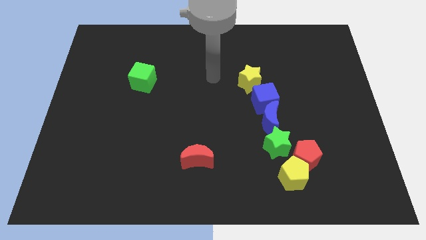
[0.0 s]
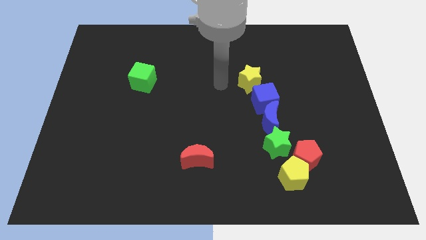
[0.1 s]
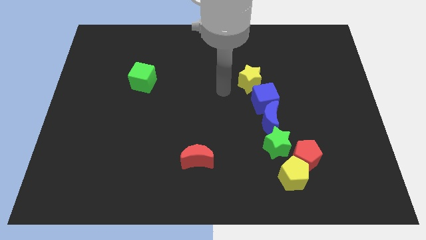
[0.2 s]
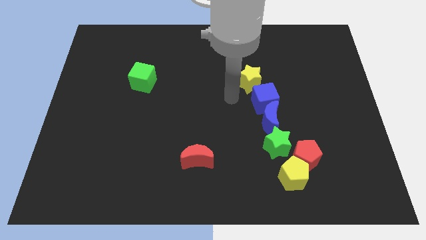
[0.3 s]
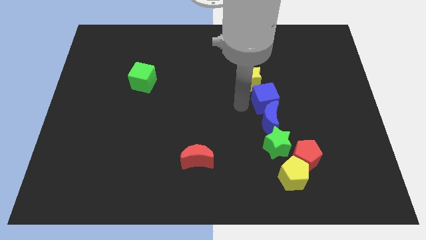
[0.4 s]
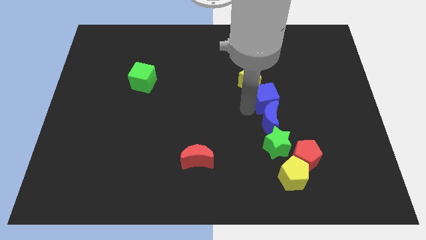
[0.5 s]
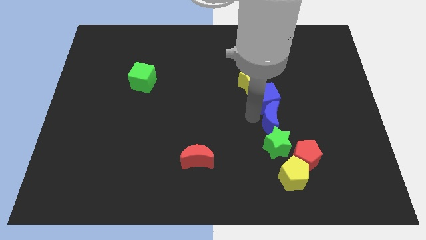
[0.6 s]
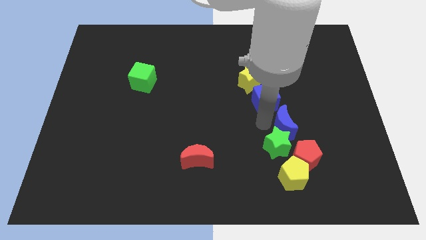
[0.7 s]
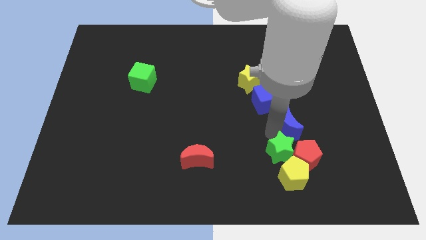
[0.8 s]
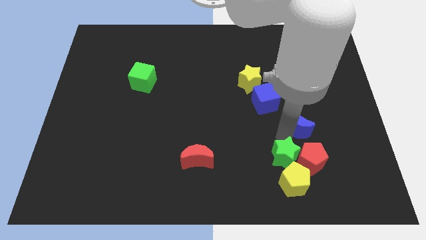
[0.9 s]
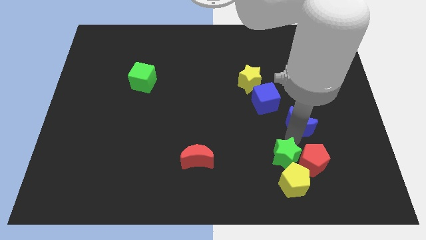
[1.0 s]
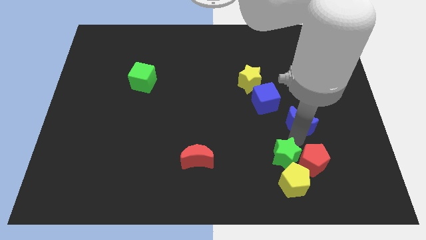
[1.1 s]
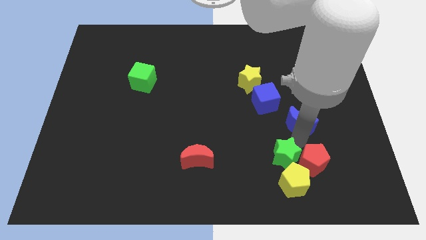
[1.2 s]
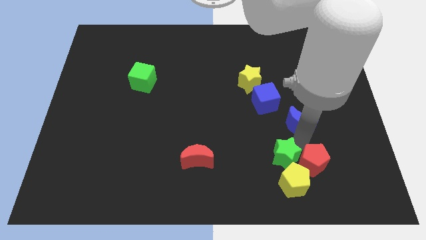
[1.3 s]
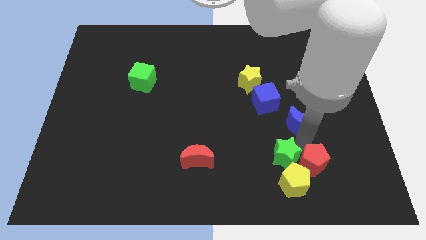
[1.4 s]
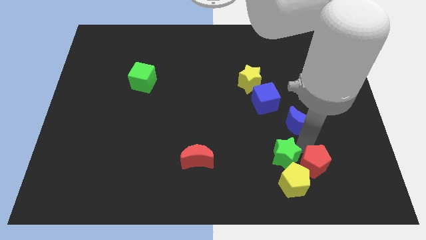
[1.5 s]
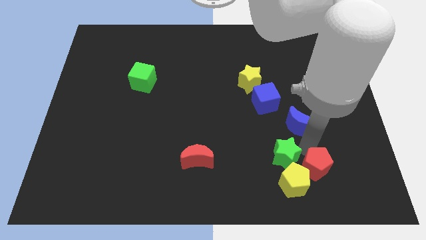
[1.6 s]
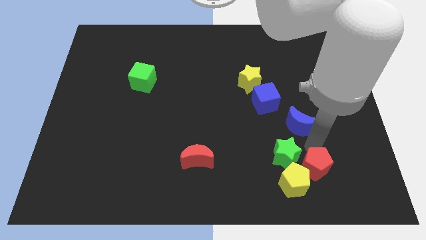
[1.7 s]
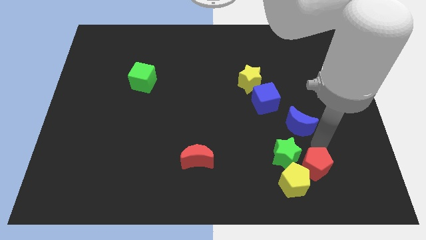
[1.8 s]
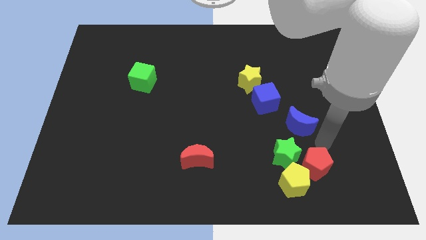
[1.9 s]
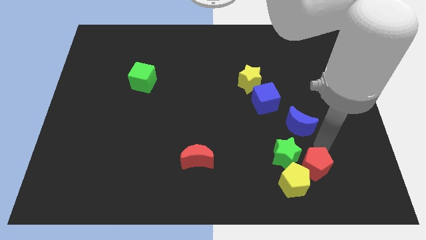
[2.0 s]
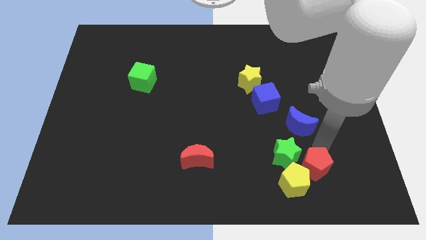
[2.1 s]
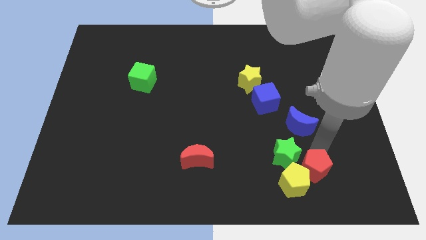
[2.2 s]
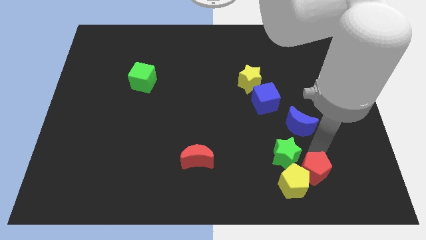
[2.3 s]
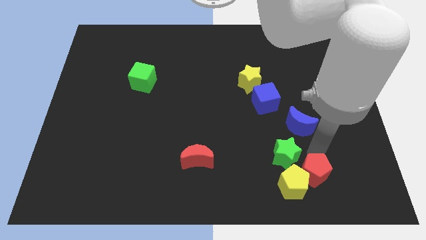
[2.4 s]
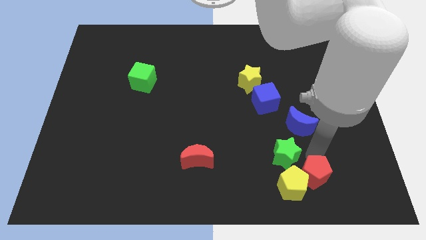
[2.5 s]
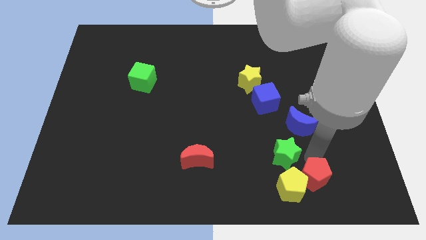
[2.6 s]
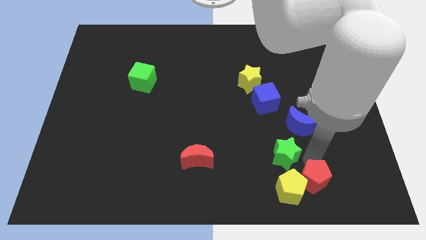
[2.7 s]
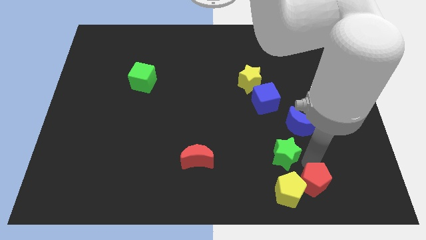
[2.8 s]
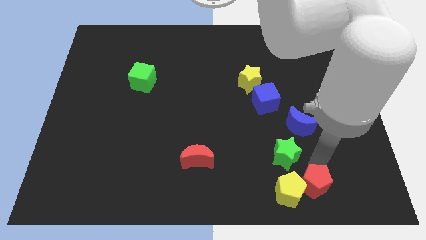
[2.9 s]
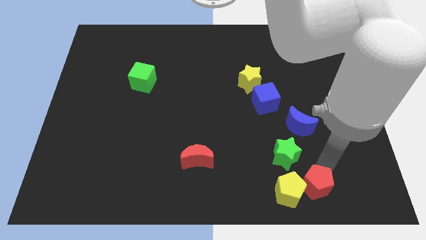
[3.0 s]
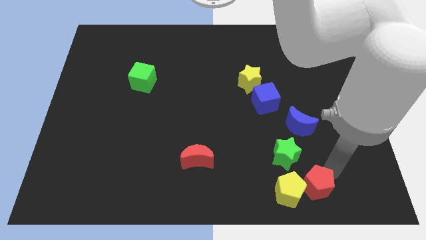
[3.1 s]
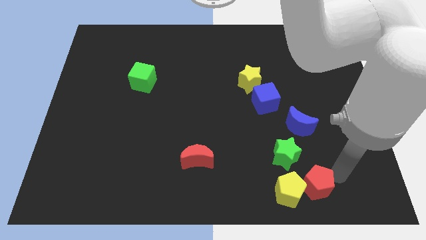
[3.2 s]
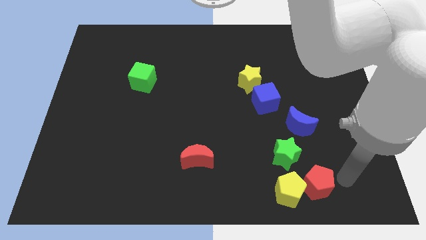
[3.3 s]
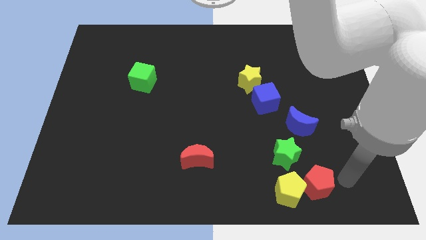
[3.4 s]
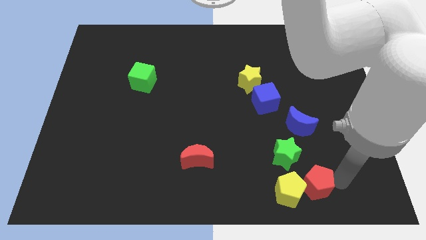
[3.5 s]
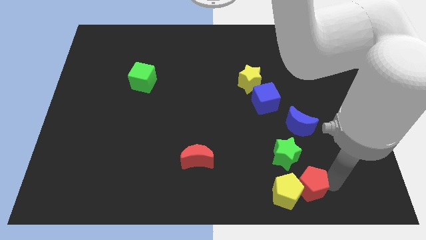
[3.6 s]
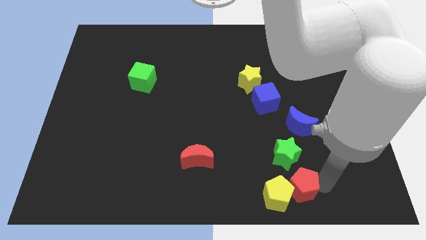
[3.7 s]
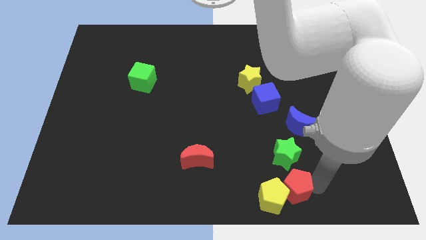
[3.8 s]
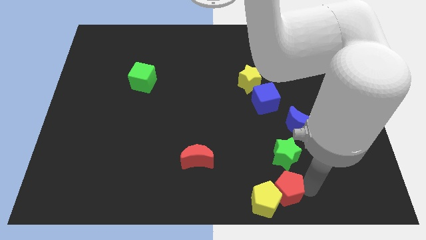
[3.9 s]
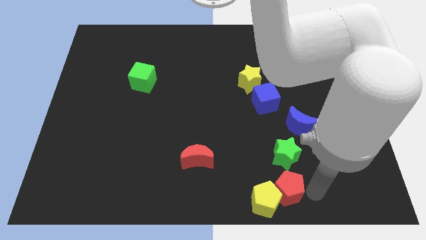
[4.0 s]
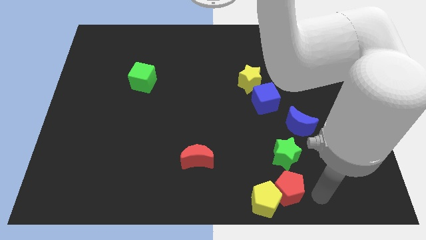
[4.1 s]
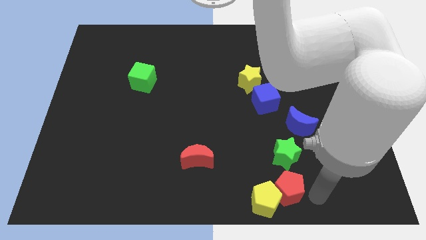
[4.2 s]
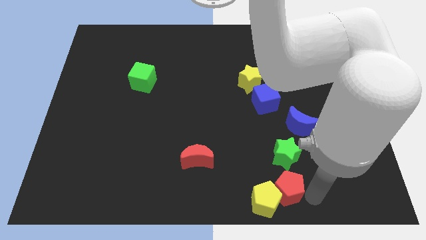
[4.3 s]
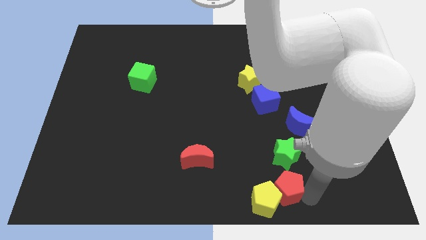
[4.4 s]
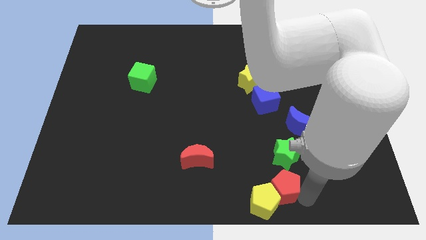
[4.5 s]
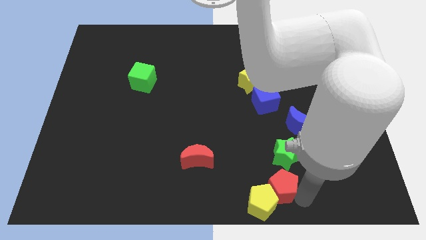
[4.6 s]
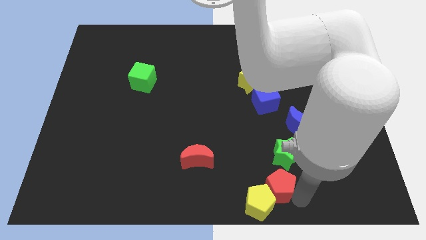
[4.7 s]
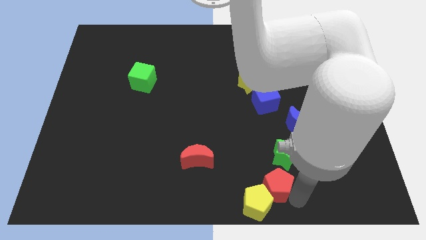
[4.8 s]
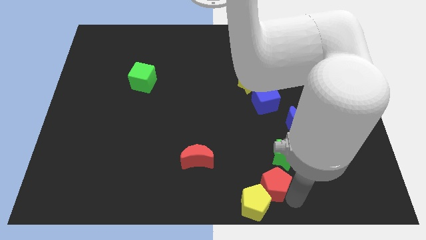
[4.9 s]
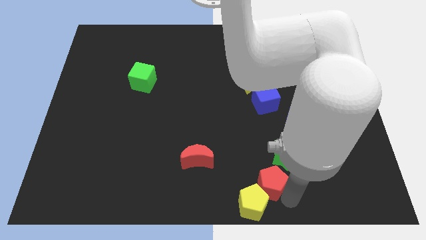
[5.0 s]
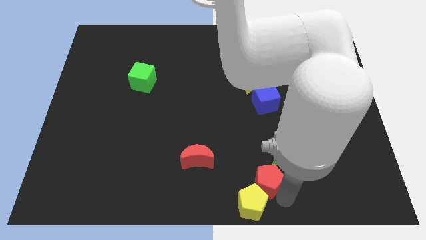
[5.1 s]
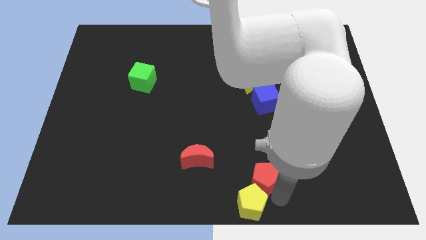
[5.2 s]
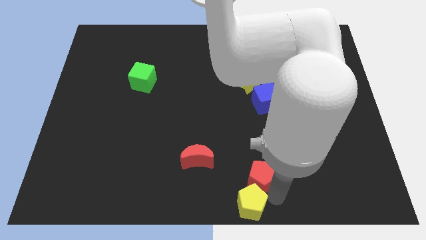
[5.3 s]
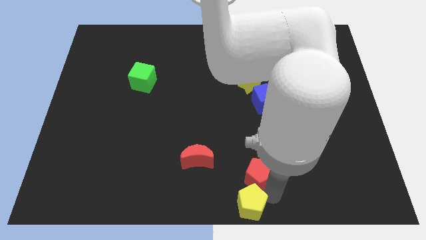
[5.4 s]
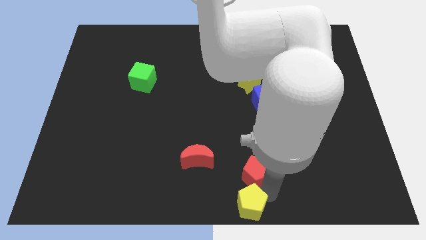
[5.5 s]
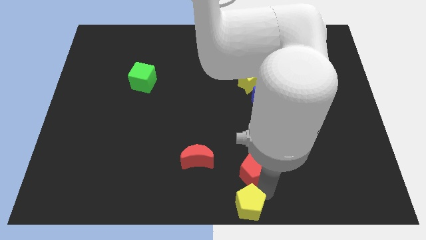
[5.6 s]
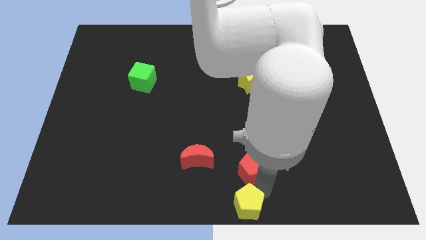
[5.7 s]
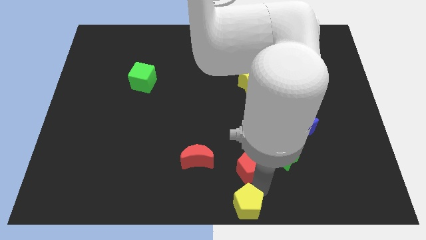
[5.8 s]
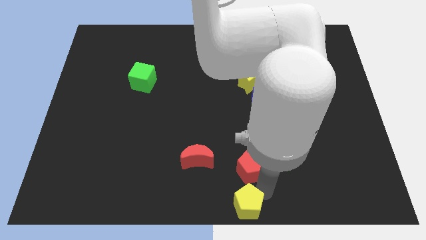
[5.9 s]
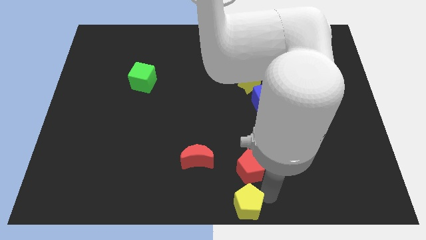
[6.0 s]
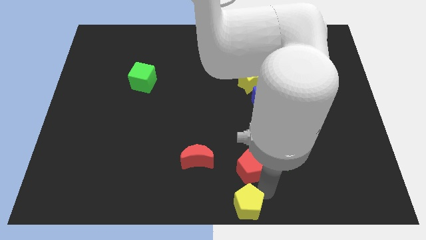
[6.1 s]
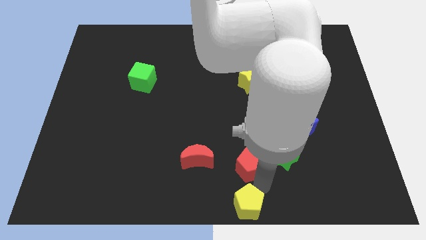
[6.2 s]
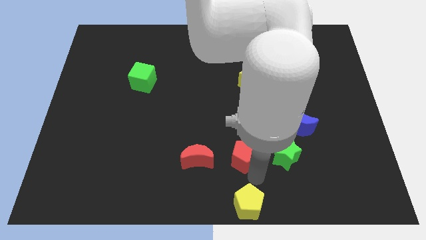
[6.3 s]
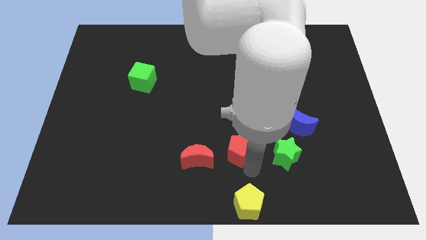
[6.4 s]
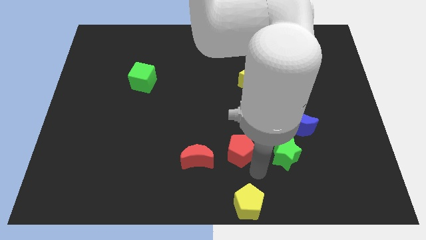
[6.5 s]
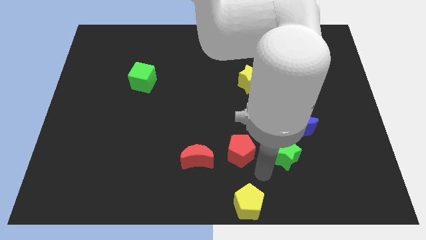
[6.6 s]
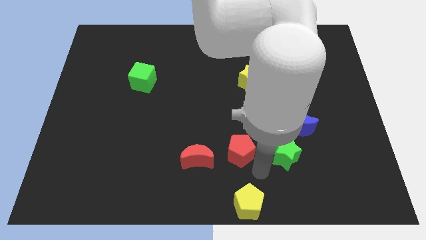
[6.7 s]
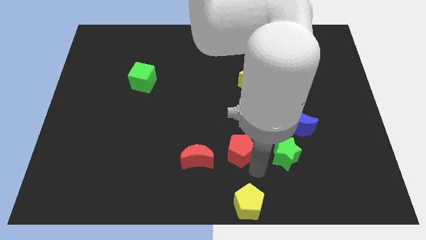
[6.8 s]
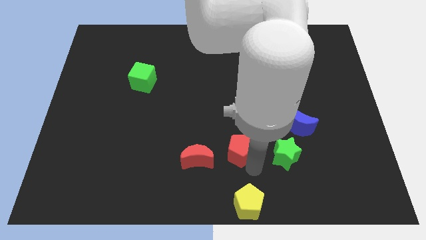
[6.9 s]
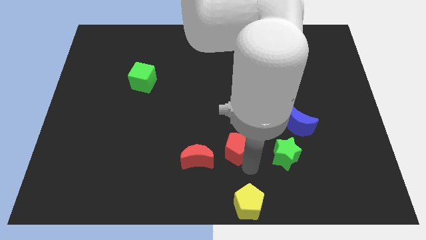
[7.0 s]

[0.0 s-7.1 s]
put the red pentagon to the top right of the red moon
